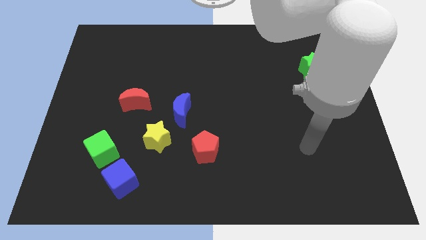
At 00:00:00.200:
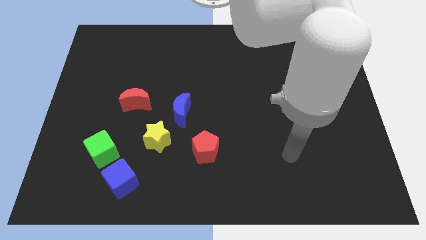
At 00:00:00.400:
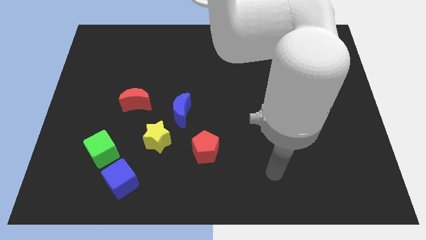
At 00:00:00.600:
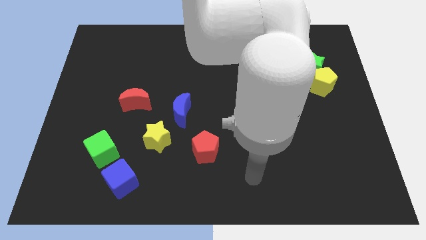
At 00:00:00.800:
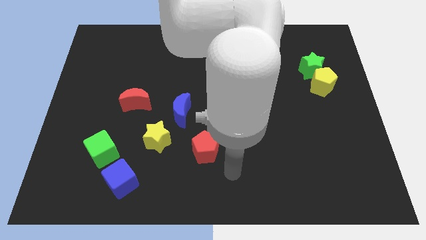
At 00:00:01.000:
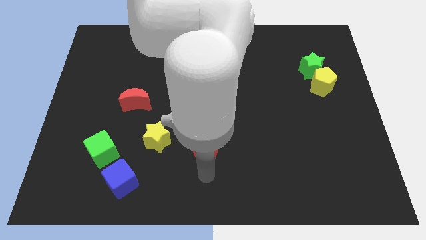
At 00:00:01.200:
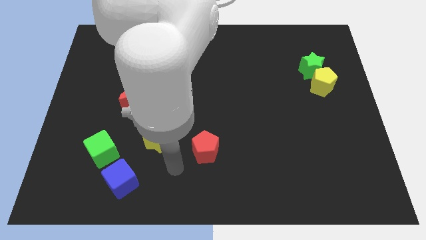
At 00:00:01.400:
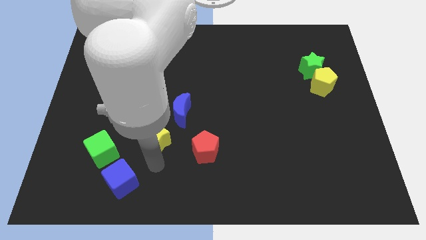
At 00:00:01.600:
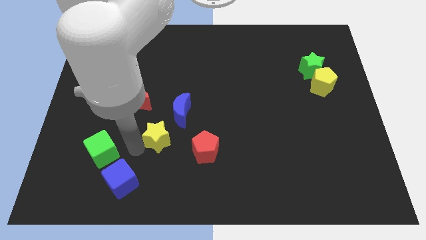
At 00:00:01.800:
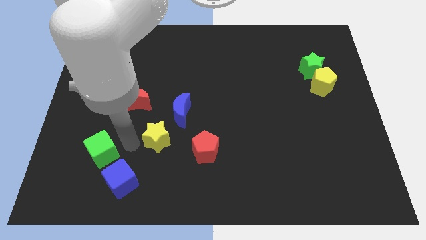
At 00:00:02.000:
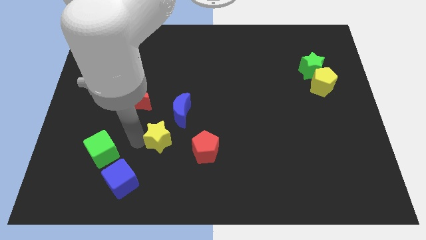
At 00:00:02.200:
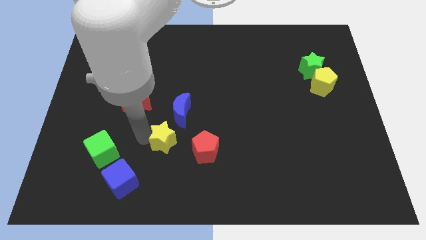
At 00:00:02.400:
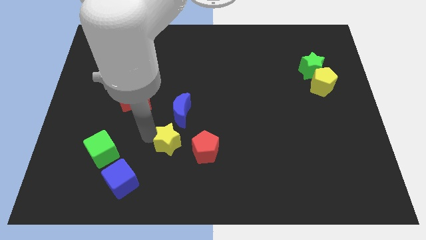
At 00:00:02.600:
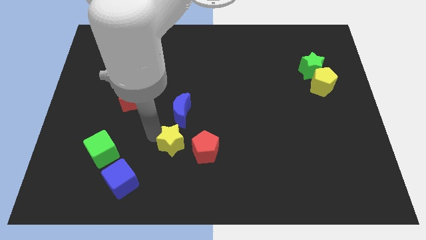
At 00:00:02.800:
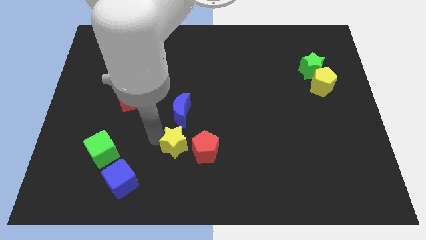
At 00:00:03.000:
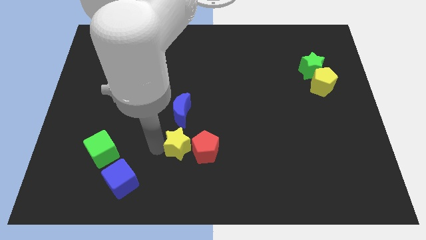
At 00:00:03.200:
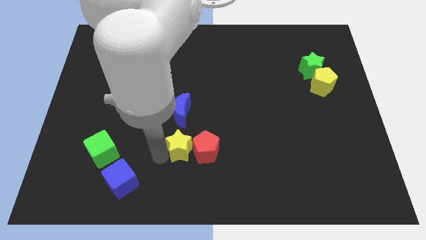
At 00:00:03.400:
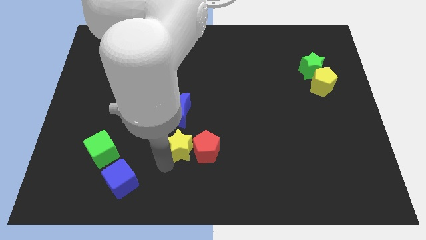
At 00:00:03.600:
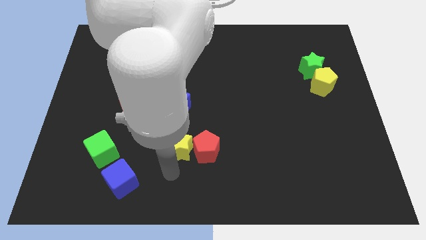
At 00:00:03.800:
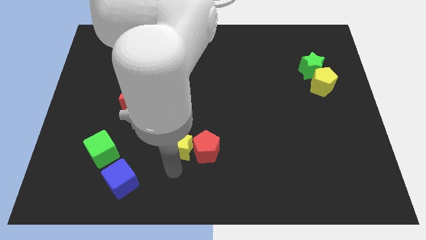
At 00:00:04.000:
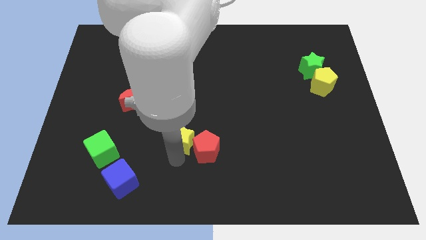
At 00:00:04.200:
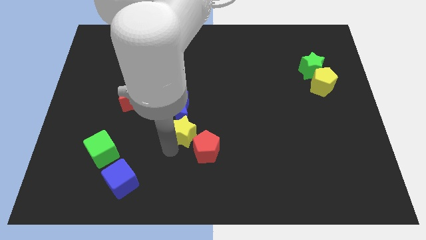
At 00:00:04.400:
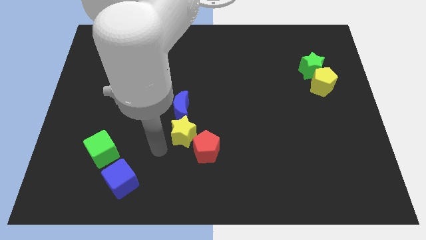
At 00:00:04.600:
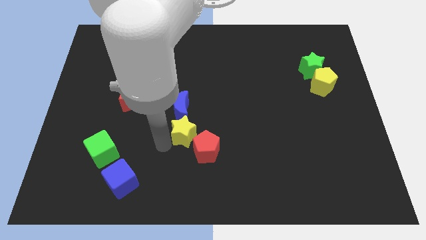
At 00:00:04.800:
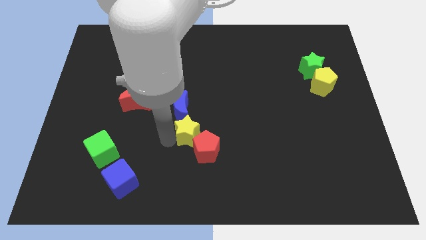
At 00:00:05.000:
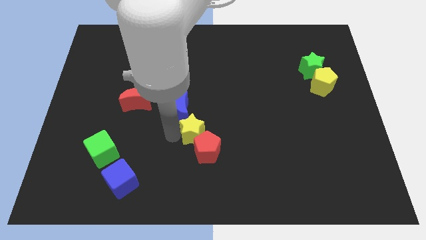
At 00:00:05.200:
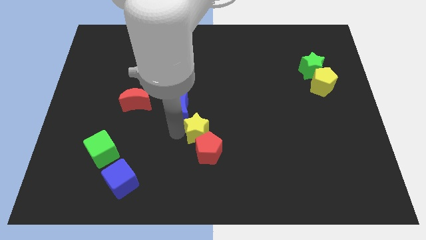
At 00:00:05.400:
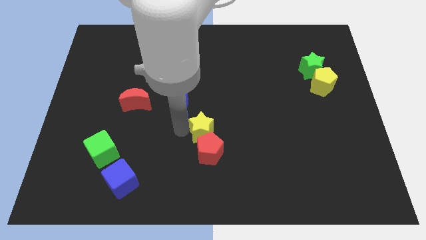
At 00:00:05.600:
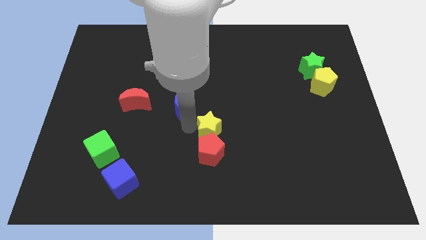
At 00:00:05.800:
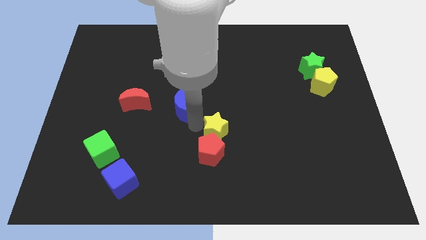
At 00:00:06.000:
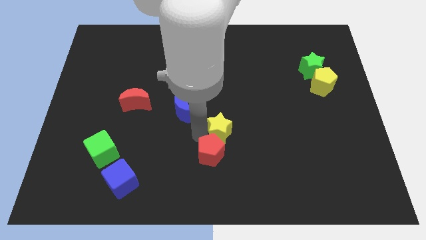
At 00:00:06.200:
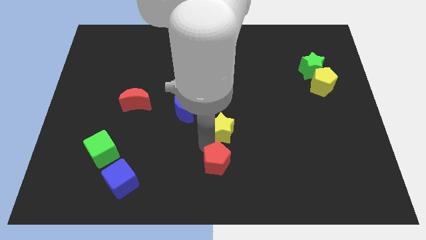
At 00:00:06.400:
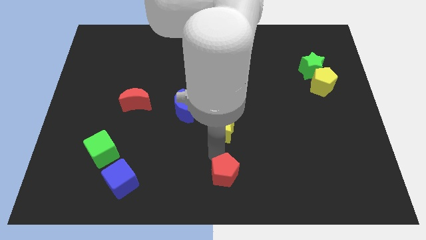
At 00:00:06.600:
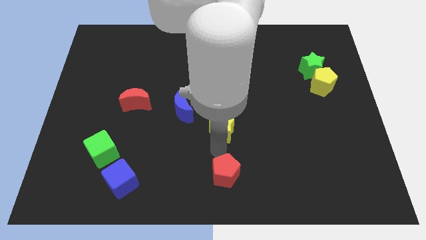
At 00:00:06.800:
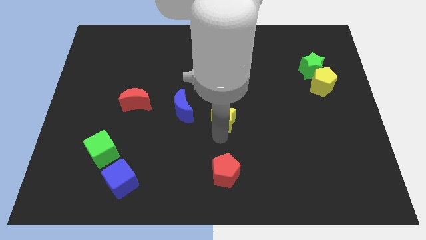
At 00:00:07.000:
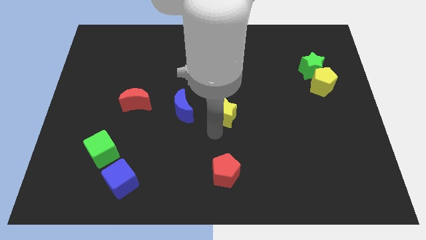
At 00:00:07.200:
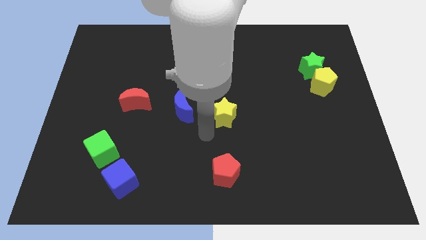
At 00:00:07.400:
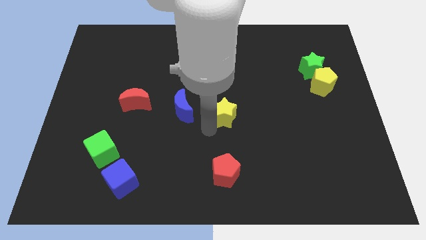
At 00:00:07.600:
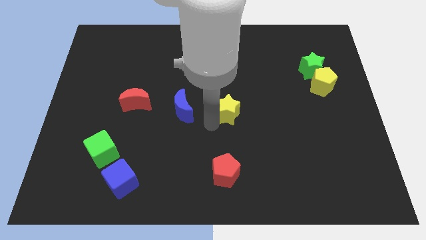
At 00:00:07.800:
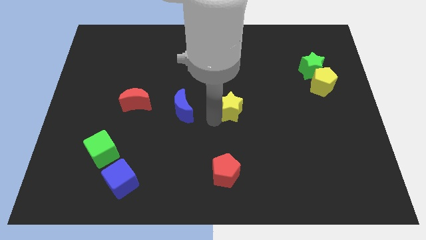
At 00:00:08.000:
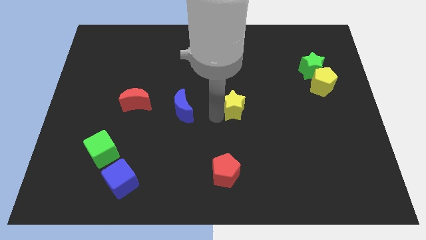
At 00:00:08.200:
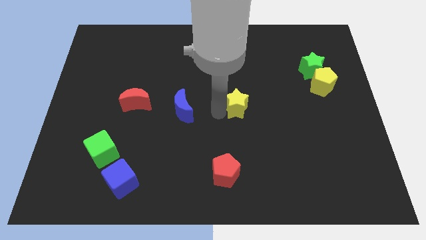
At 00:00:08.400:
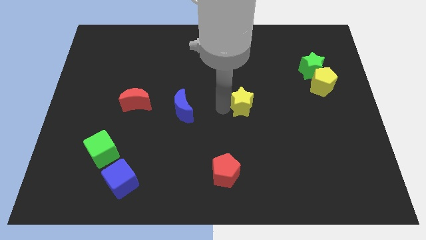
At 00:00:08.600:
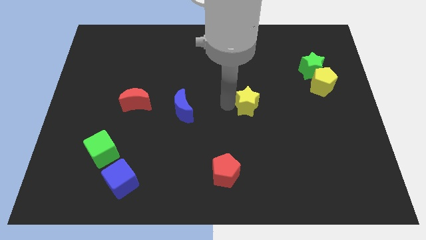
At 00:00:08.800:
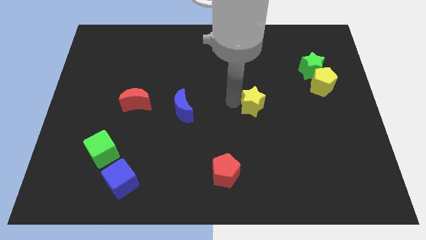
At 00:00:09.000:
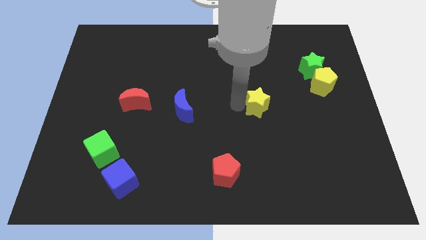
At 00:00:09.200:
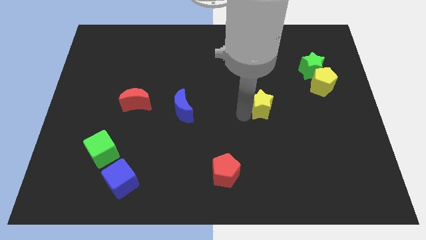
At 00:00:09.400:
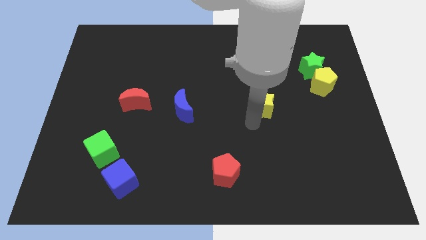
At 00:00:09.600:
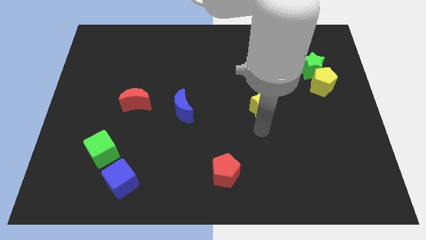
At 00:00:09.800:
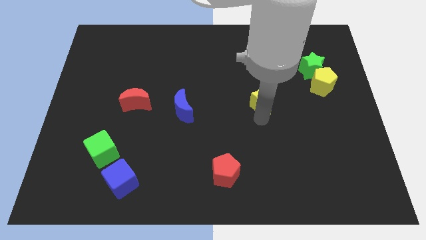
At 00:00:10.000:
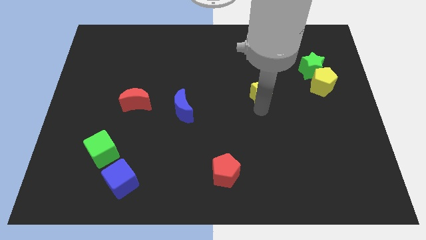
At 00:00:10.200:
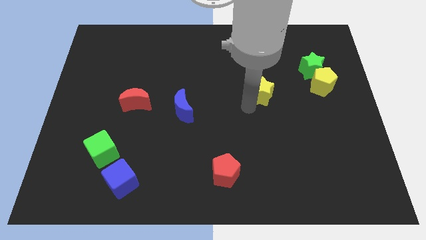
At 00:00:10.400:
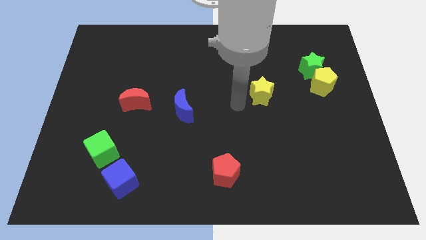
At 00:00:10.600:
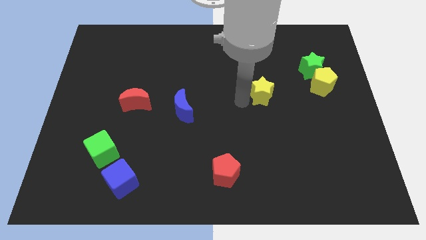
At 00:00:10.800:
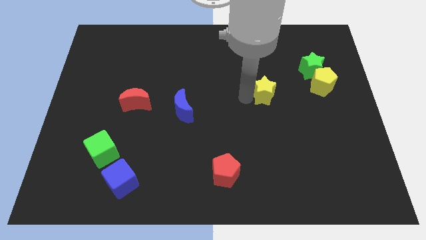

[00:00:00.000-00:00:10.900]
slide the yellow star just left of the yellow pentagon

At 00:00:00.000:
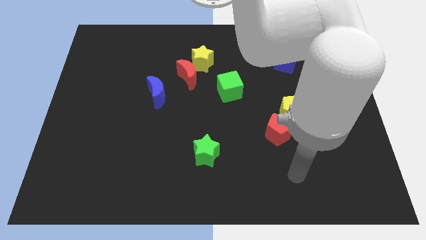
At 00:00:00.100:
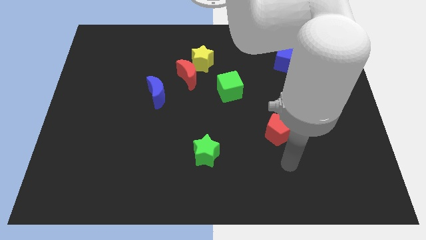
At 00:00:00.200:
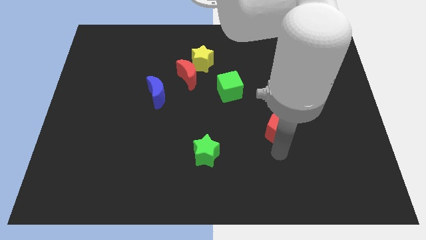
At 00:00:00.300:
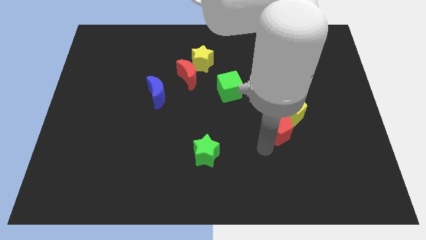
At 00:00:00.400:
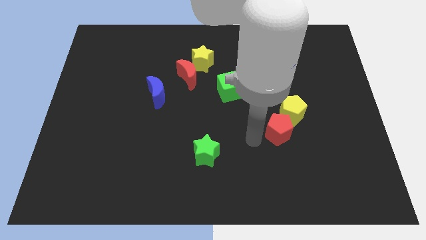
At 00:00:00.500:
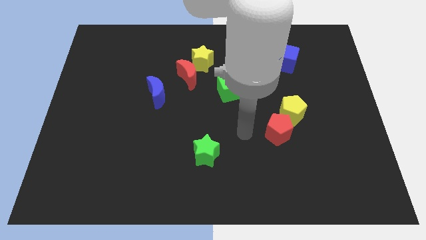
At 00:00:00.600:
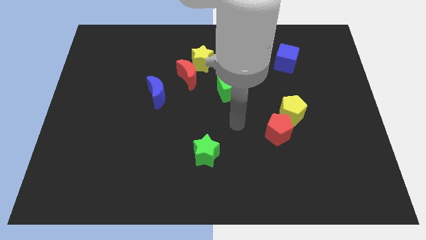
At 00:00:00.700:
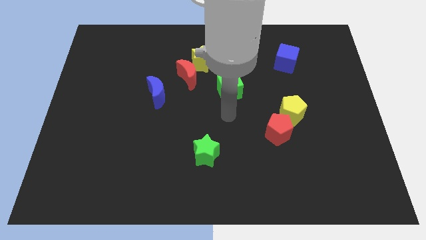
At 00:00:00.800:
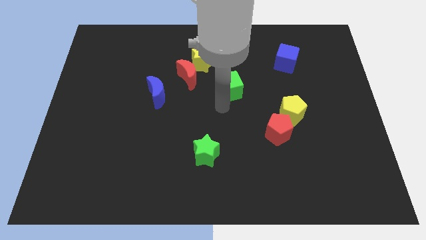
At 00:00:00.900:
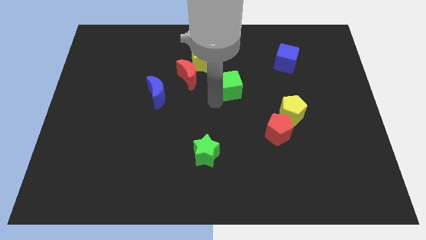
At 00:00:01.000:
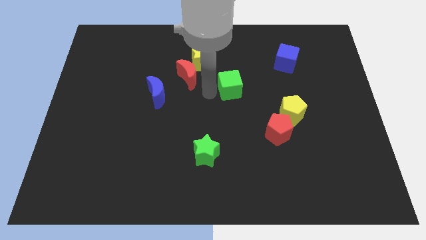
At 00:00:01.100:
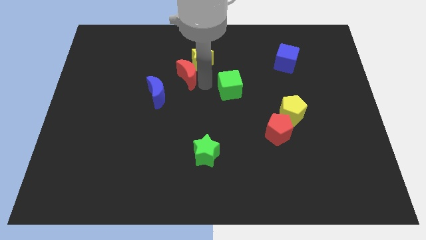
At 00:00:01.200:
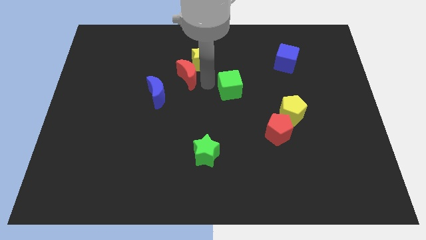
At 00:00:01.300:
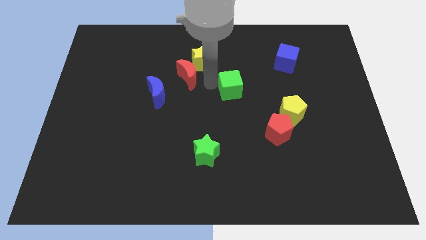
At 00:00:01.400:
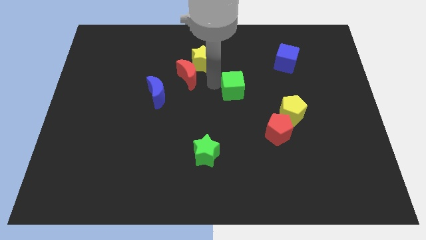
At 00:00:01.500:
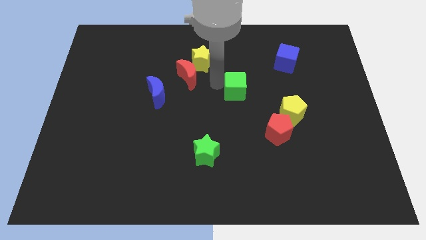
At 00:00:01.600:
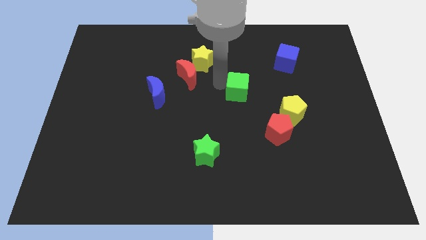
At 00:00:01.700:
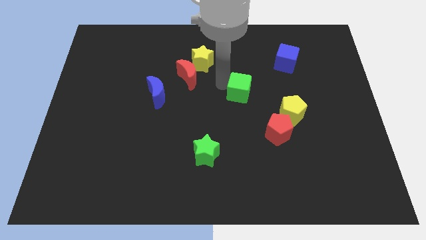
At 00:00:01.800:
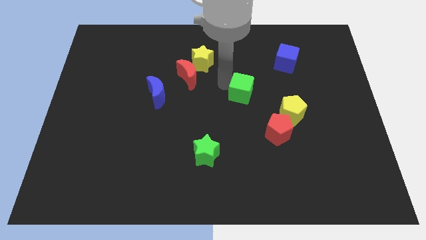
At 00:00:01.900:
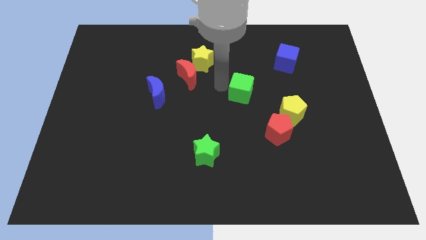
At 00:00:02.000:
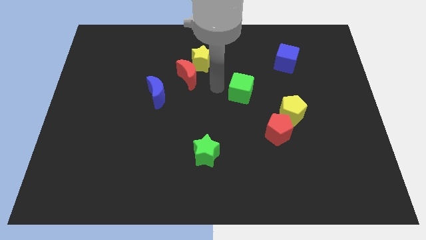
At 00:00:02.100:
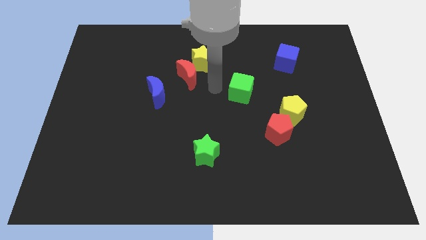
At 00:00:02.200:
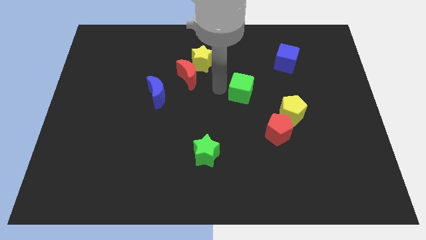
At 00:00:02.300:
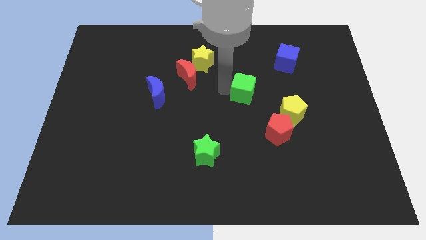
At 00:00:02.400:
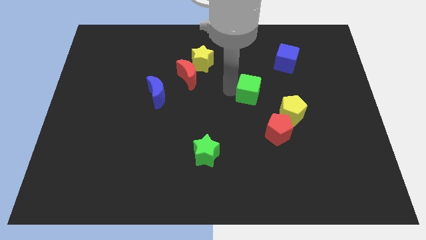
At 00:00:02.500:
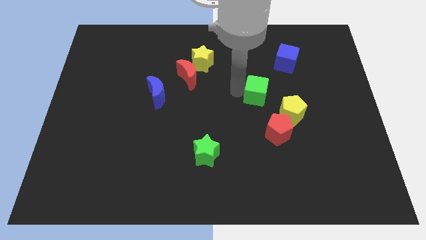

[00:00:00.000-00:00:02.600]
put the green cube to the top of the red pentagon
